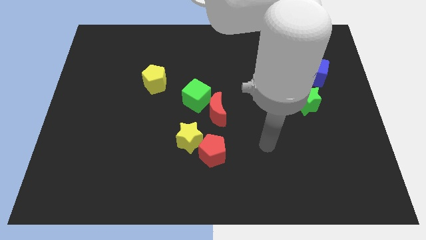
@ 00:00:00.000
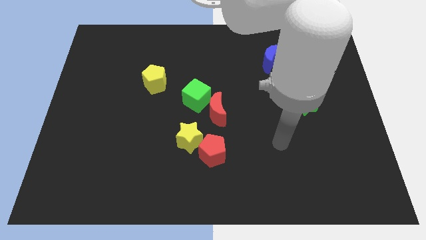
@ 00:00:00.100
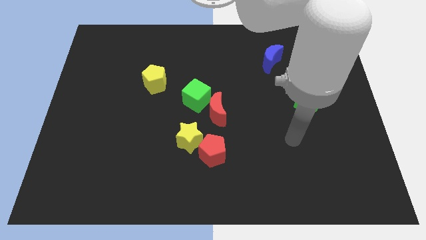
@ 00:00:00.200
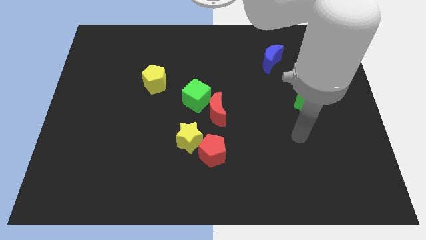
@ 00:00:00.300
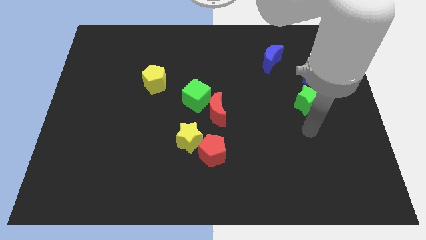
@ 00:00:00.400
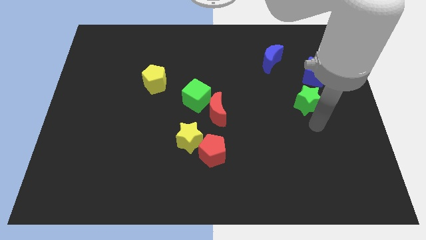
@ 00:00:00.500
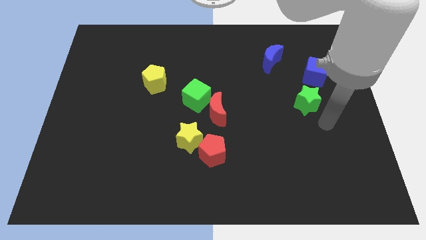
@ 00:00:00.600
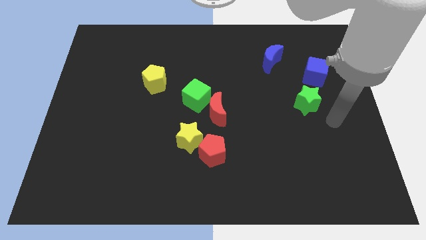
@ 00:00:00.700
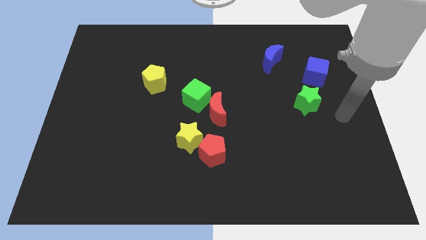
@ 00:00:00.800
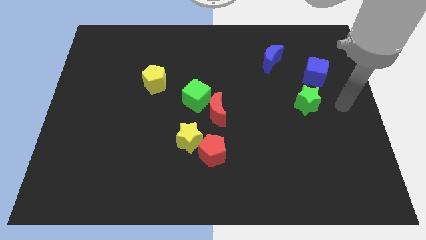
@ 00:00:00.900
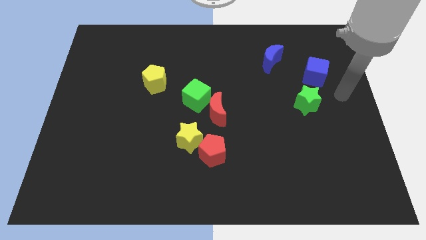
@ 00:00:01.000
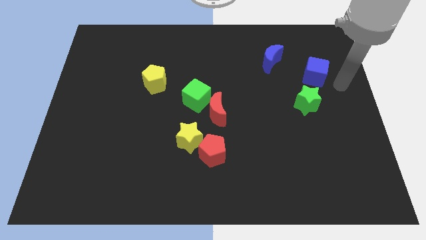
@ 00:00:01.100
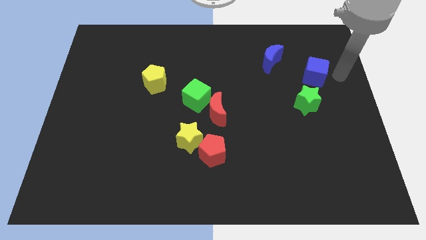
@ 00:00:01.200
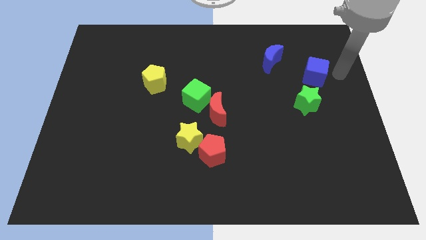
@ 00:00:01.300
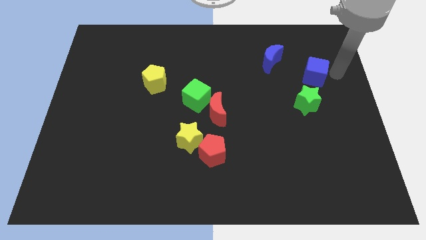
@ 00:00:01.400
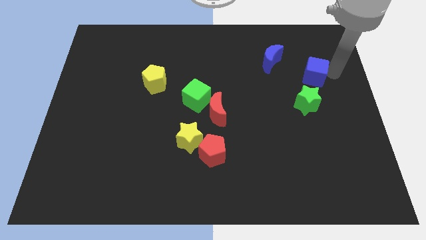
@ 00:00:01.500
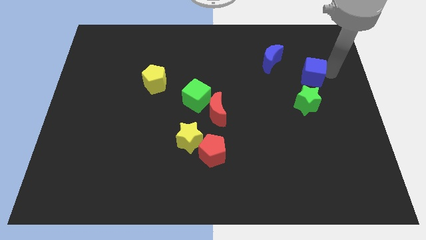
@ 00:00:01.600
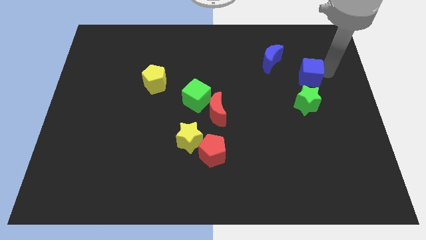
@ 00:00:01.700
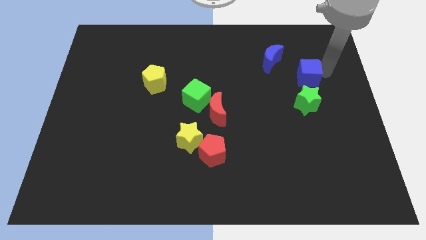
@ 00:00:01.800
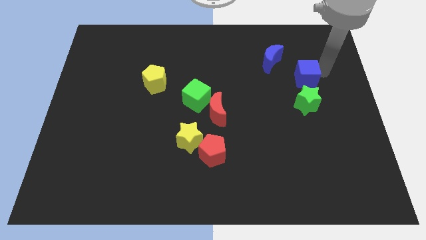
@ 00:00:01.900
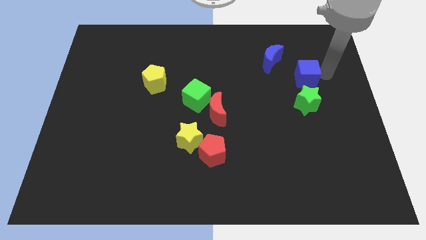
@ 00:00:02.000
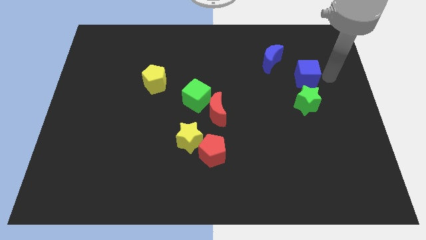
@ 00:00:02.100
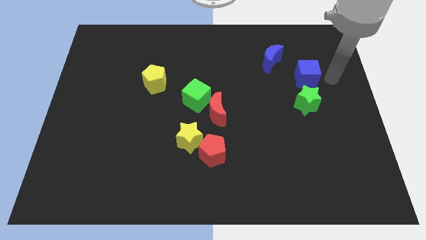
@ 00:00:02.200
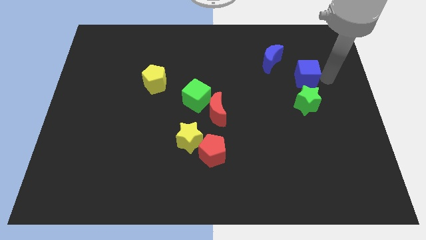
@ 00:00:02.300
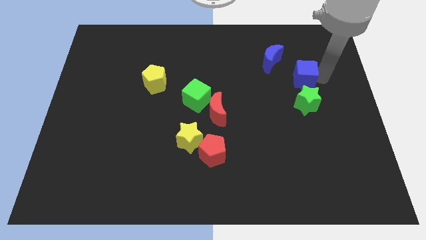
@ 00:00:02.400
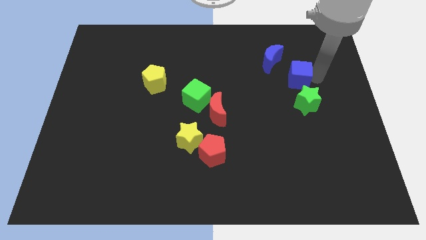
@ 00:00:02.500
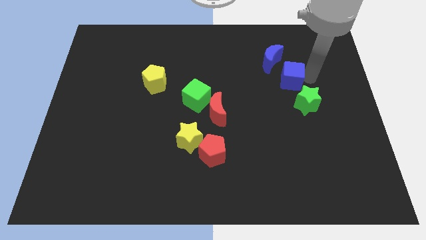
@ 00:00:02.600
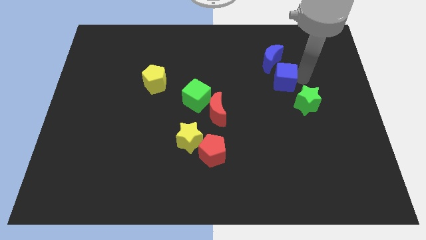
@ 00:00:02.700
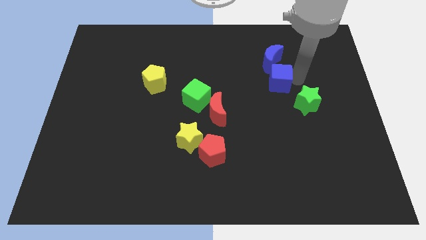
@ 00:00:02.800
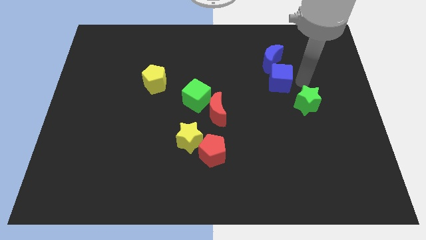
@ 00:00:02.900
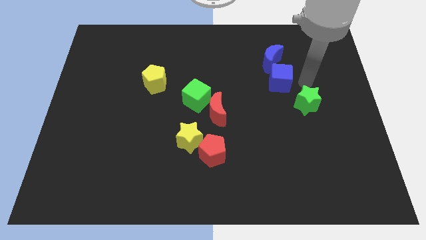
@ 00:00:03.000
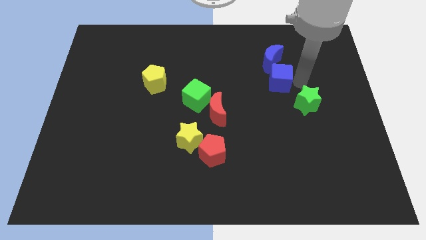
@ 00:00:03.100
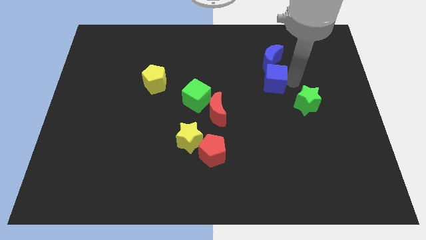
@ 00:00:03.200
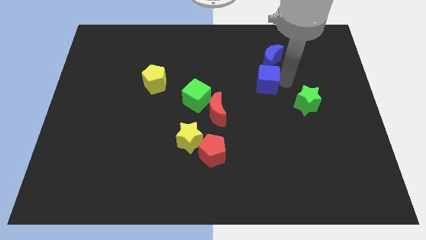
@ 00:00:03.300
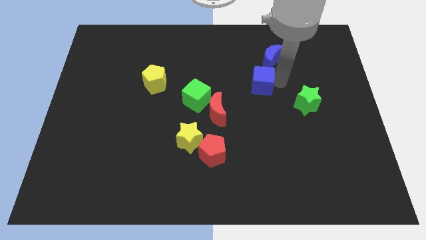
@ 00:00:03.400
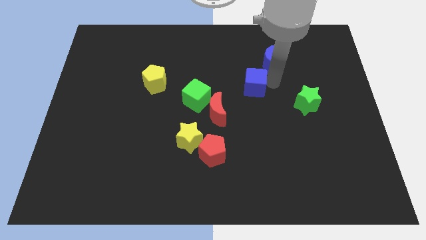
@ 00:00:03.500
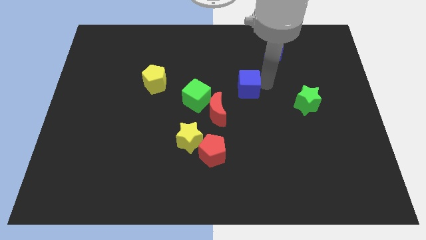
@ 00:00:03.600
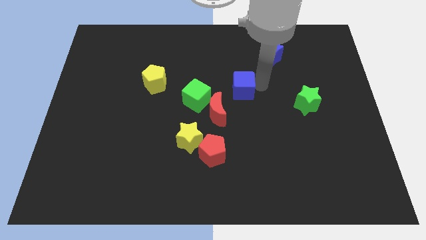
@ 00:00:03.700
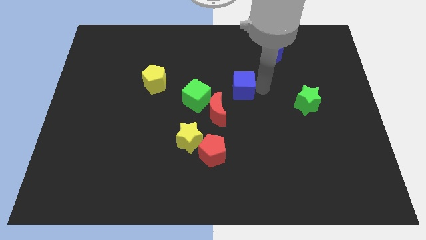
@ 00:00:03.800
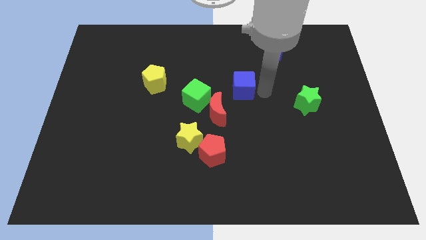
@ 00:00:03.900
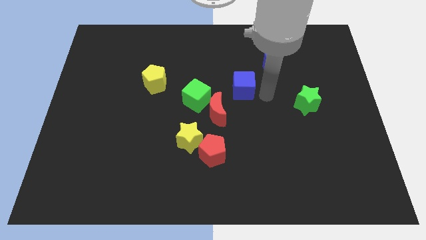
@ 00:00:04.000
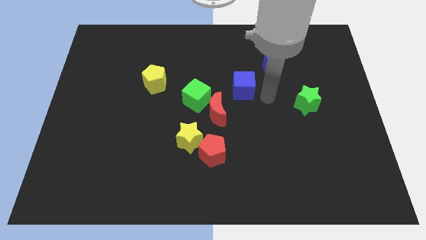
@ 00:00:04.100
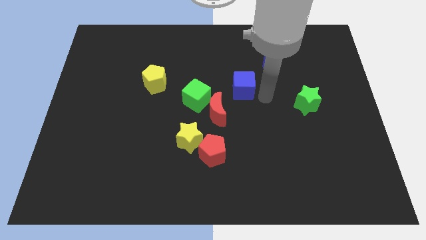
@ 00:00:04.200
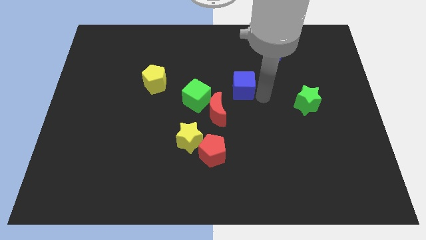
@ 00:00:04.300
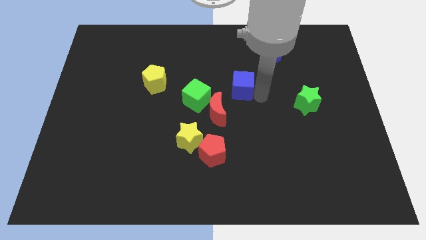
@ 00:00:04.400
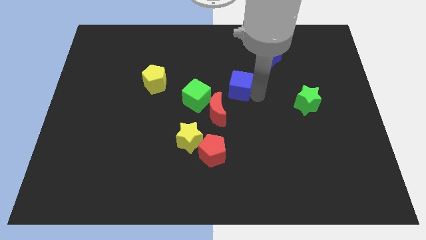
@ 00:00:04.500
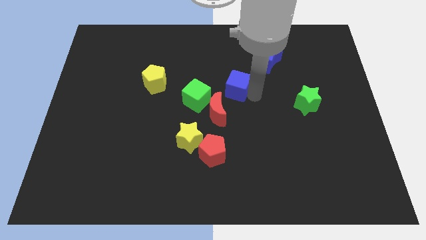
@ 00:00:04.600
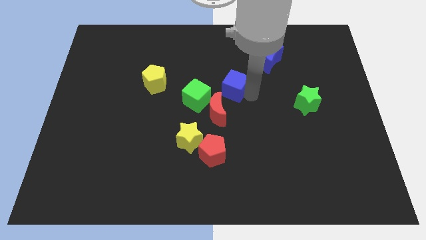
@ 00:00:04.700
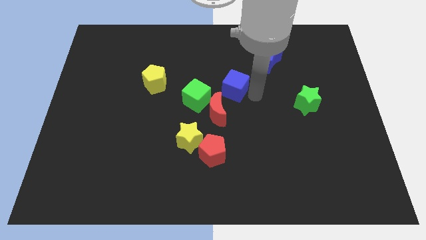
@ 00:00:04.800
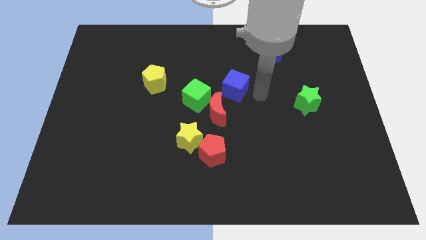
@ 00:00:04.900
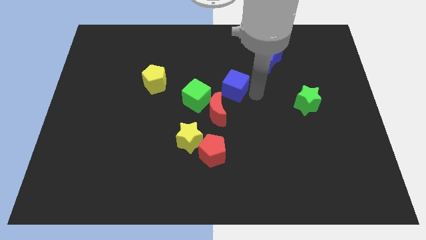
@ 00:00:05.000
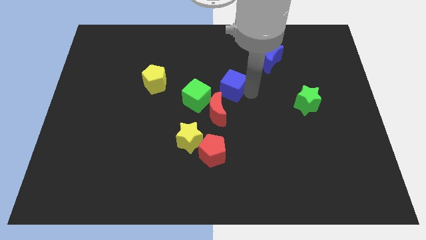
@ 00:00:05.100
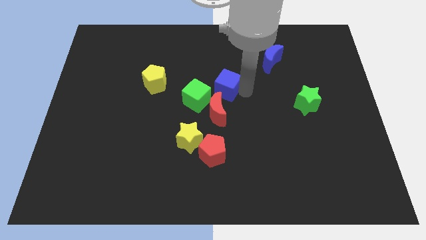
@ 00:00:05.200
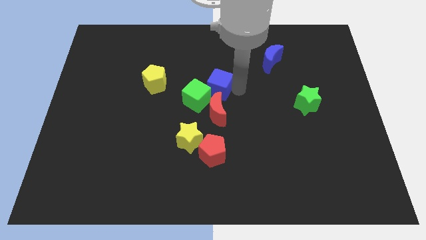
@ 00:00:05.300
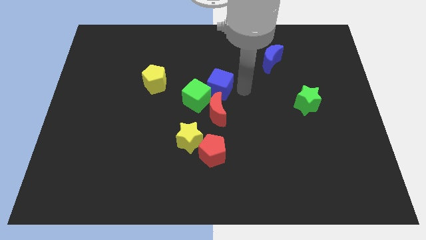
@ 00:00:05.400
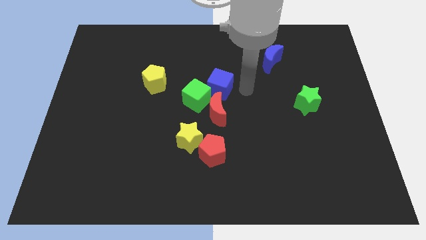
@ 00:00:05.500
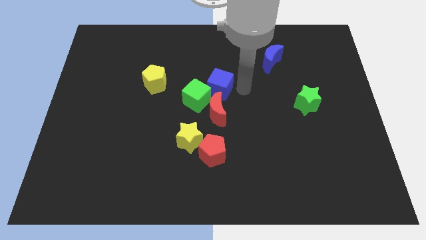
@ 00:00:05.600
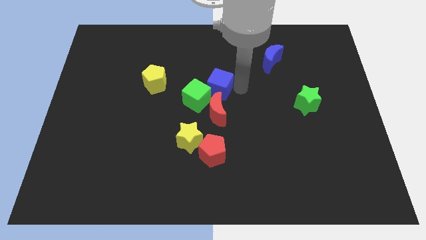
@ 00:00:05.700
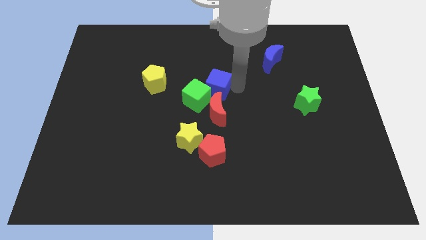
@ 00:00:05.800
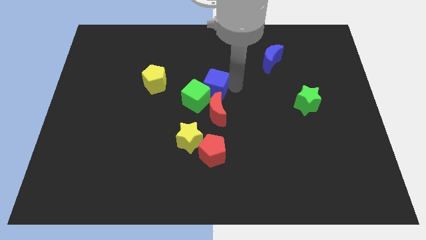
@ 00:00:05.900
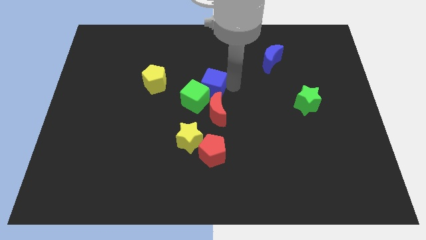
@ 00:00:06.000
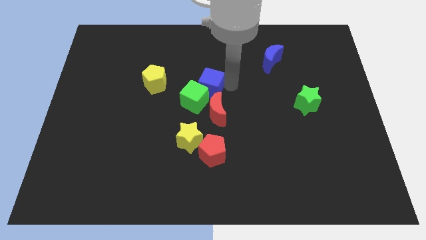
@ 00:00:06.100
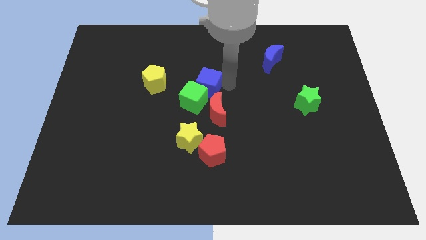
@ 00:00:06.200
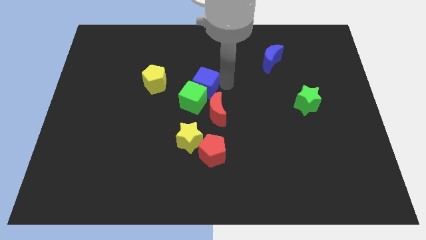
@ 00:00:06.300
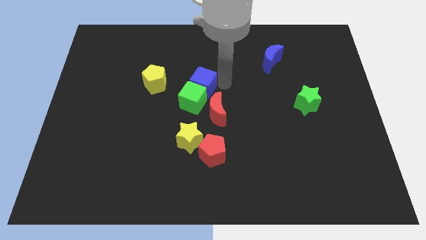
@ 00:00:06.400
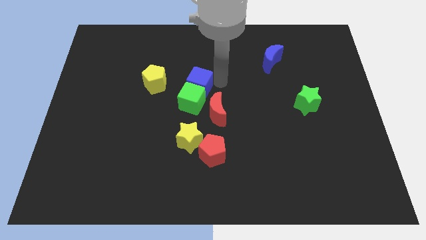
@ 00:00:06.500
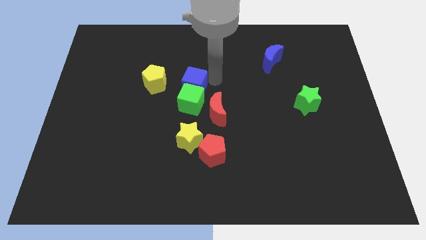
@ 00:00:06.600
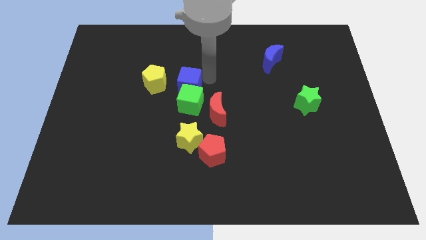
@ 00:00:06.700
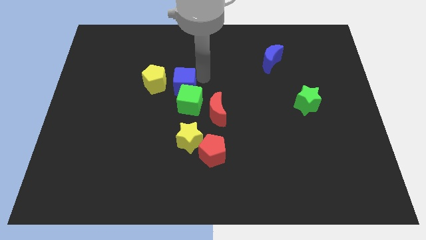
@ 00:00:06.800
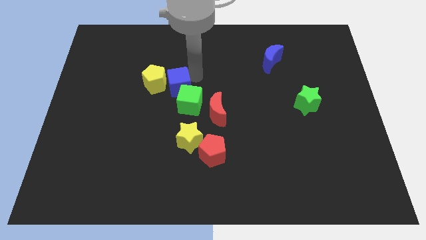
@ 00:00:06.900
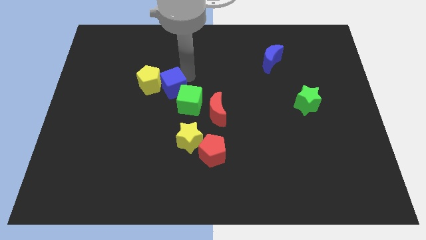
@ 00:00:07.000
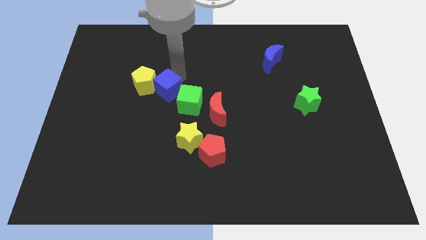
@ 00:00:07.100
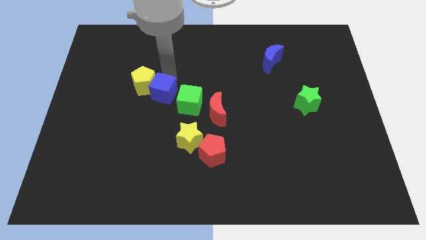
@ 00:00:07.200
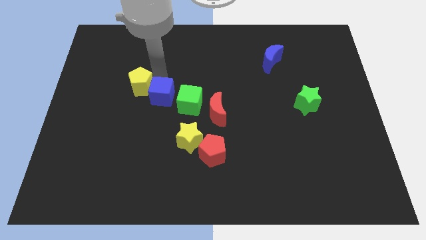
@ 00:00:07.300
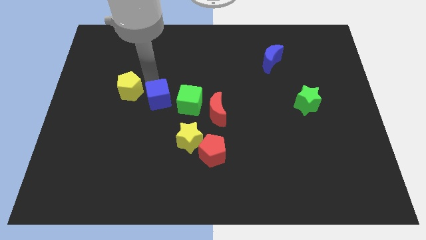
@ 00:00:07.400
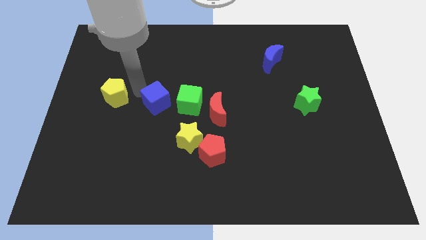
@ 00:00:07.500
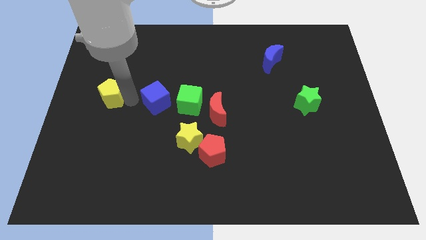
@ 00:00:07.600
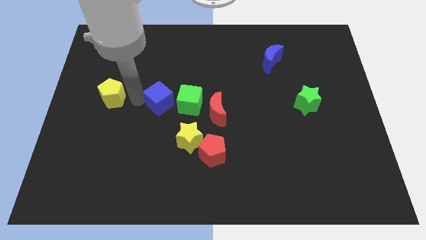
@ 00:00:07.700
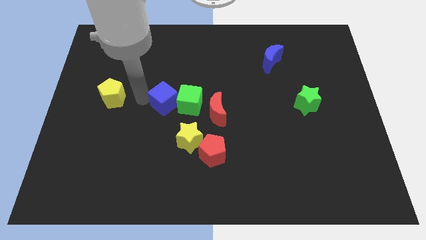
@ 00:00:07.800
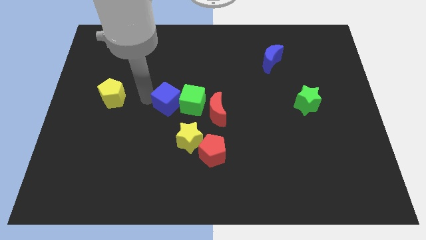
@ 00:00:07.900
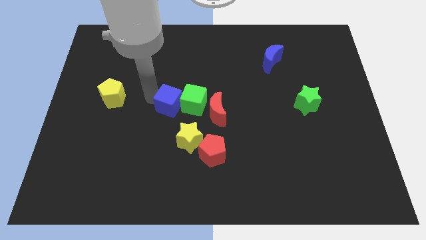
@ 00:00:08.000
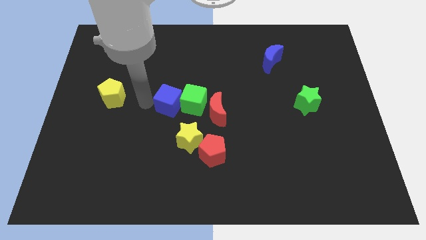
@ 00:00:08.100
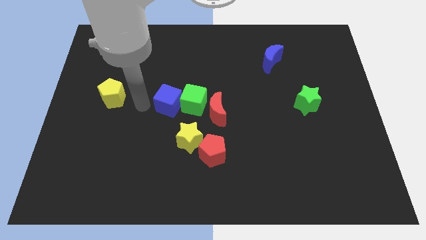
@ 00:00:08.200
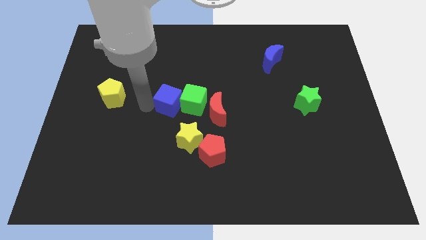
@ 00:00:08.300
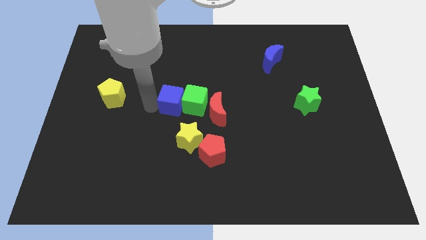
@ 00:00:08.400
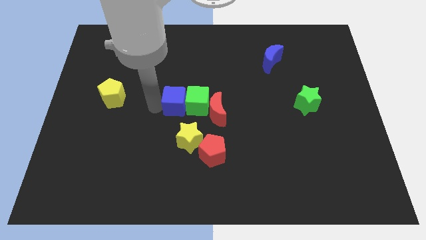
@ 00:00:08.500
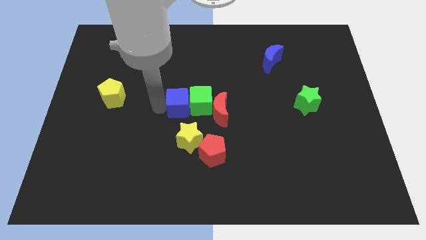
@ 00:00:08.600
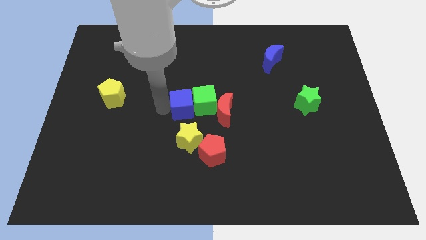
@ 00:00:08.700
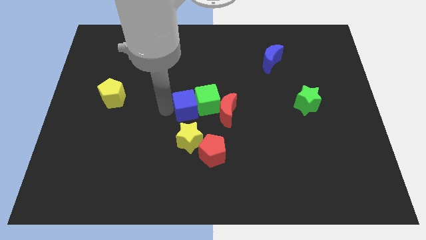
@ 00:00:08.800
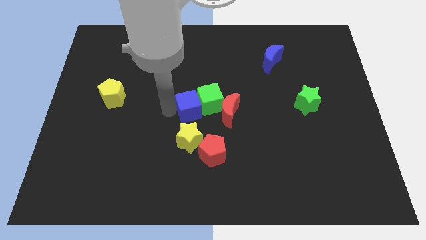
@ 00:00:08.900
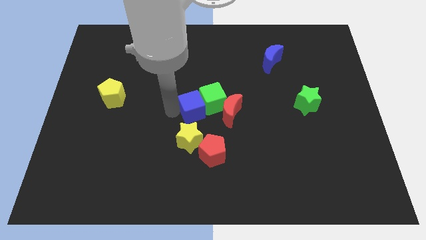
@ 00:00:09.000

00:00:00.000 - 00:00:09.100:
move the blue cube above the red pentagon
